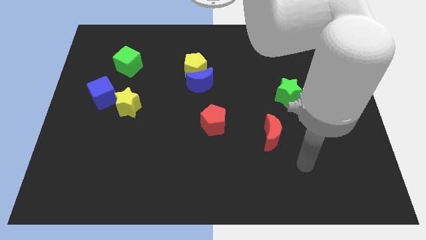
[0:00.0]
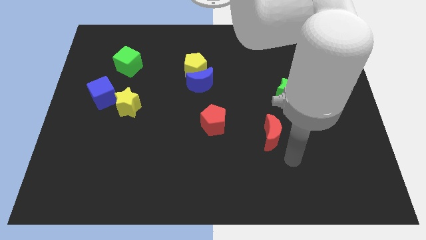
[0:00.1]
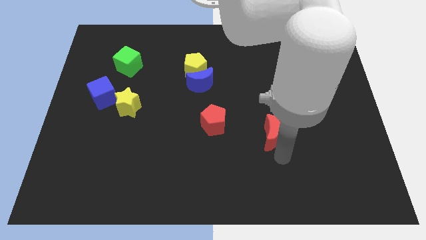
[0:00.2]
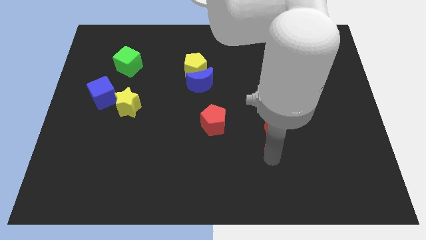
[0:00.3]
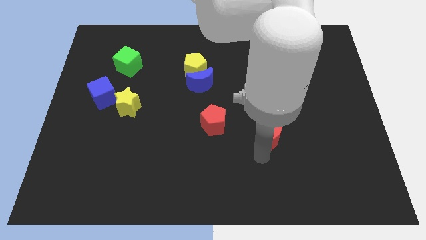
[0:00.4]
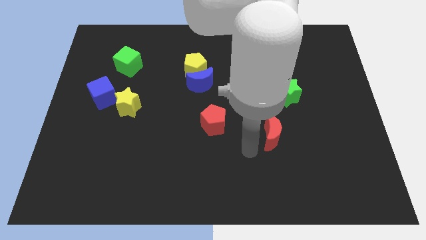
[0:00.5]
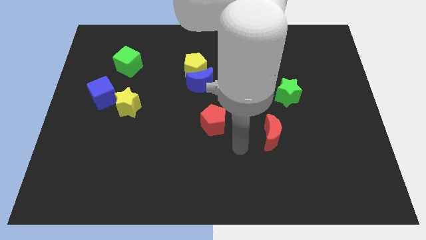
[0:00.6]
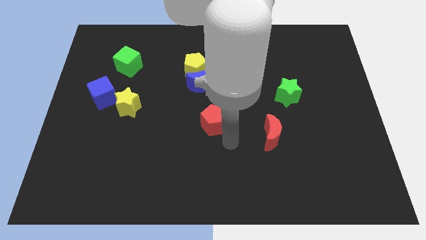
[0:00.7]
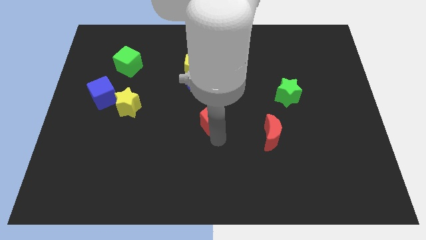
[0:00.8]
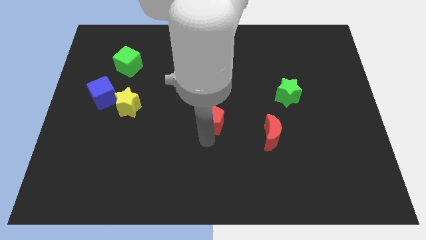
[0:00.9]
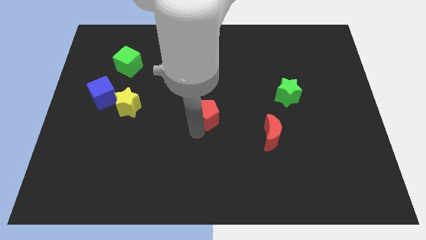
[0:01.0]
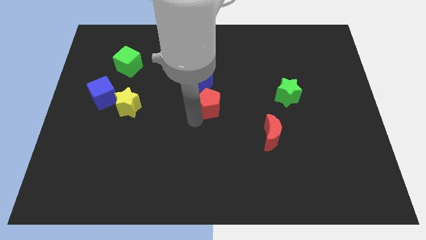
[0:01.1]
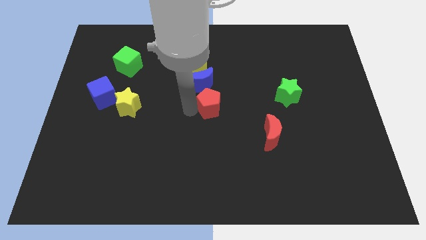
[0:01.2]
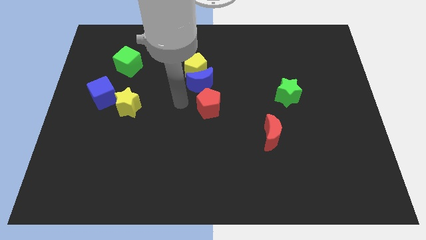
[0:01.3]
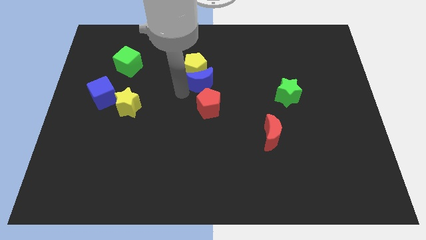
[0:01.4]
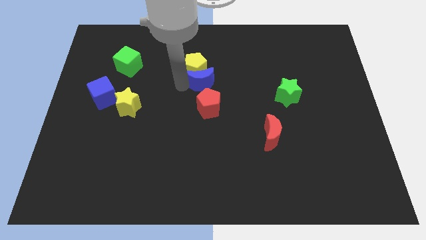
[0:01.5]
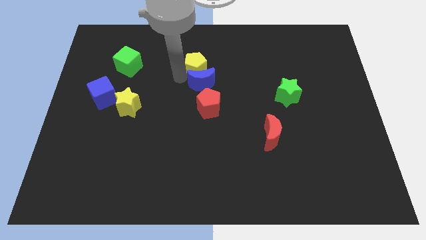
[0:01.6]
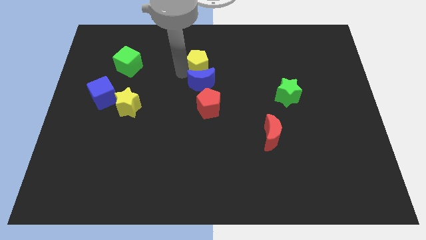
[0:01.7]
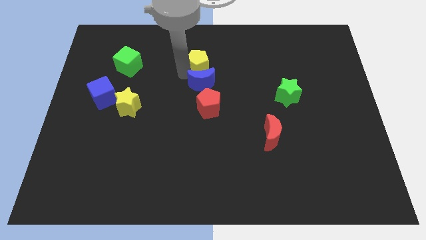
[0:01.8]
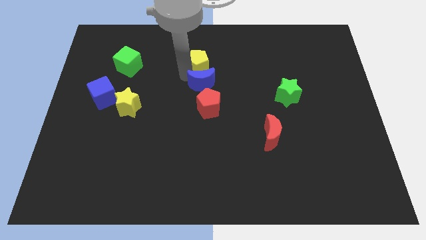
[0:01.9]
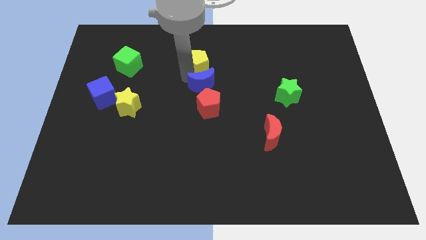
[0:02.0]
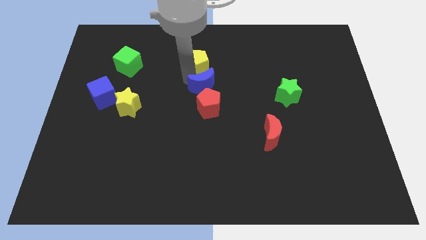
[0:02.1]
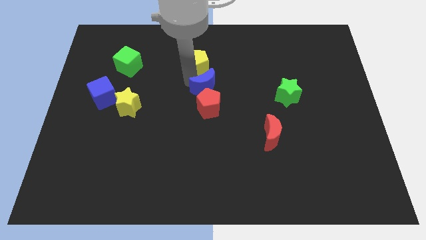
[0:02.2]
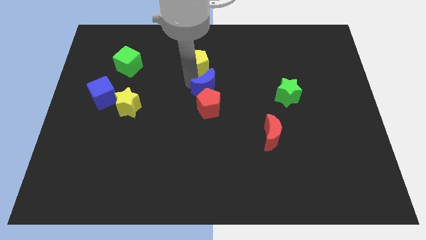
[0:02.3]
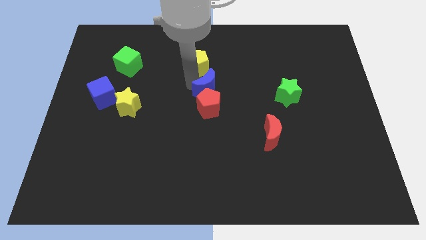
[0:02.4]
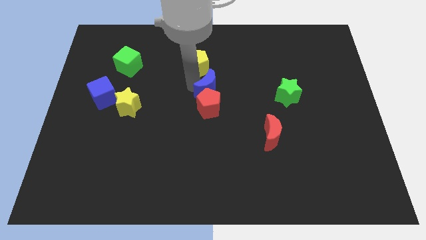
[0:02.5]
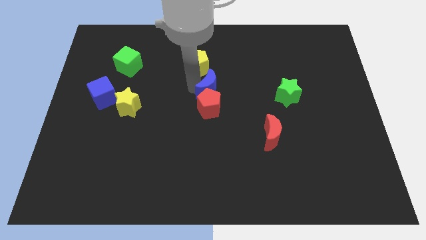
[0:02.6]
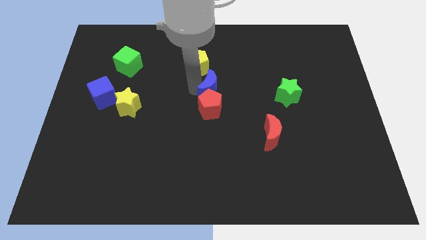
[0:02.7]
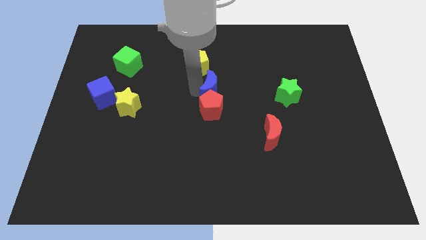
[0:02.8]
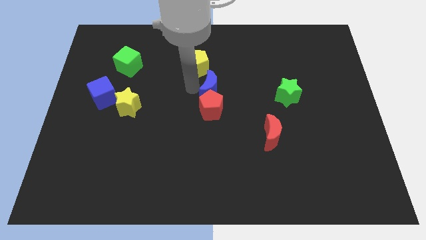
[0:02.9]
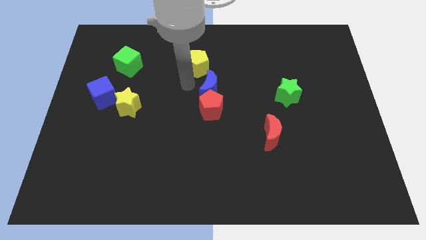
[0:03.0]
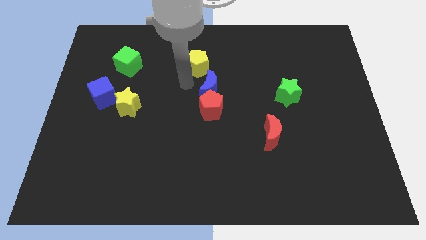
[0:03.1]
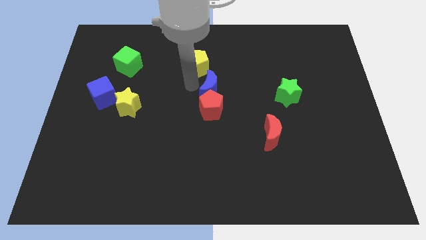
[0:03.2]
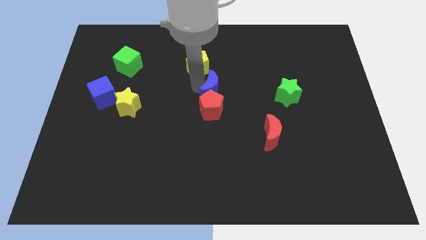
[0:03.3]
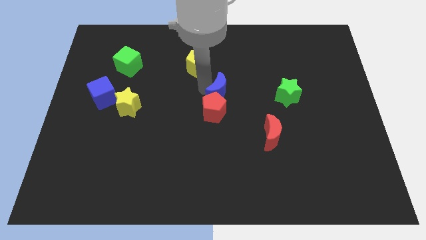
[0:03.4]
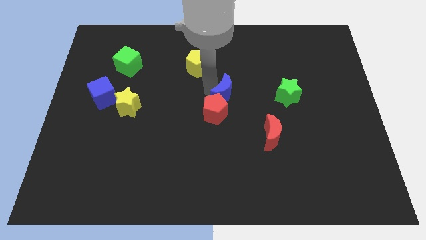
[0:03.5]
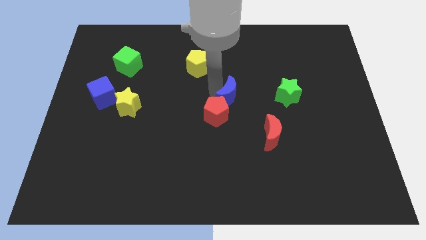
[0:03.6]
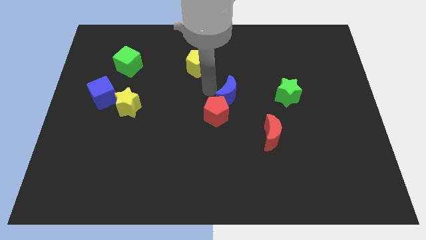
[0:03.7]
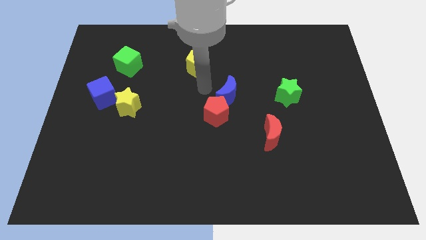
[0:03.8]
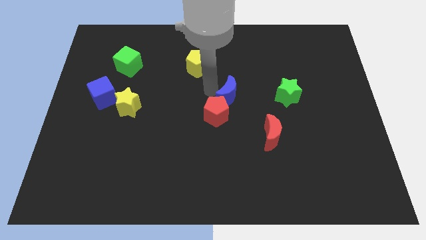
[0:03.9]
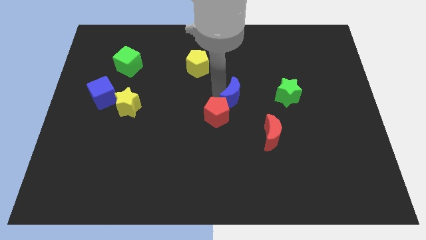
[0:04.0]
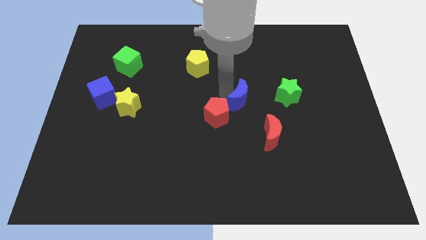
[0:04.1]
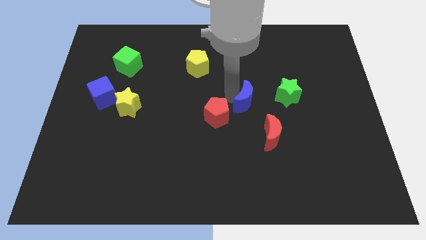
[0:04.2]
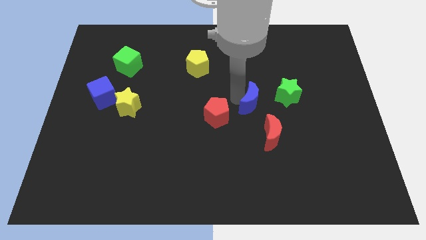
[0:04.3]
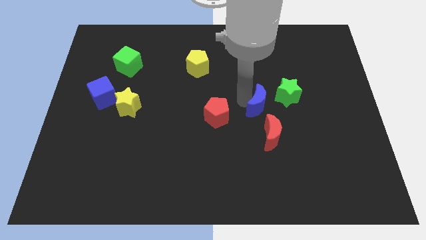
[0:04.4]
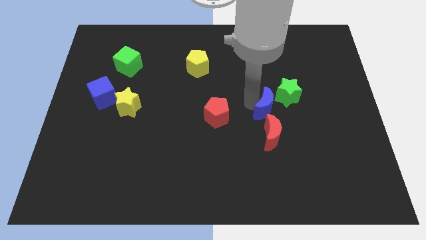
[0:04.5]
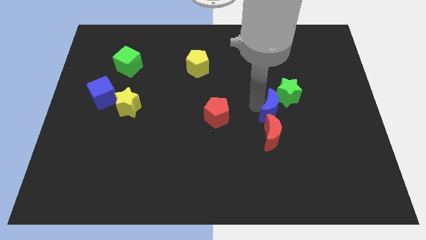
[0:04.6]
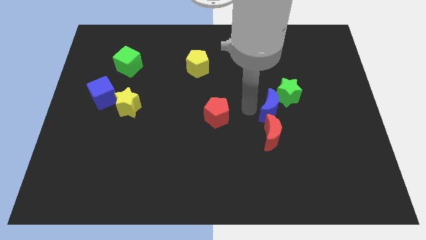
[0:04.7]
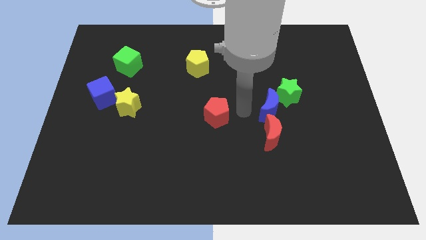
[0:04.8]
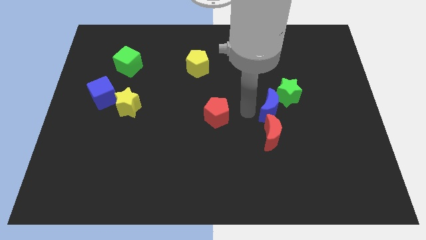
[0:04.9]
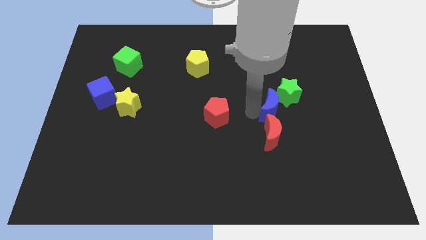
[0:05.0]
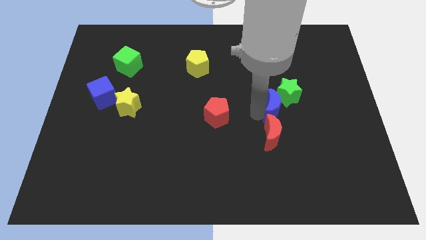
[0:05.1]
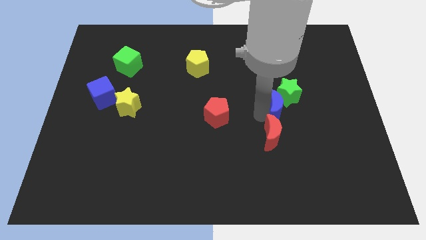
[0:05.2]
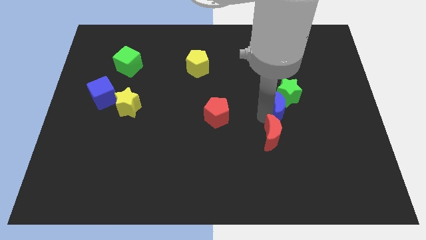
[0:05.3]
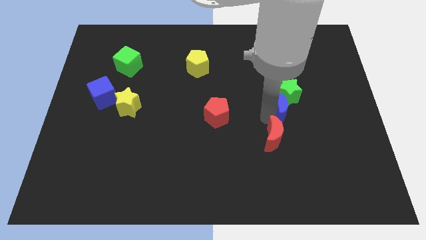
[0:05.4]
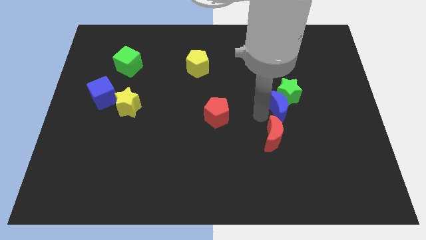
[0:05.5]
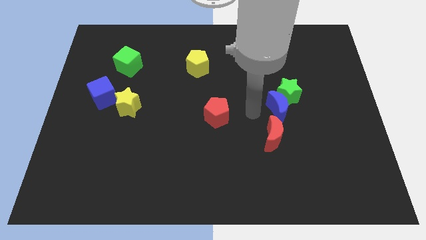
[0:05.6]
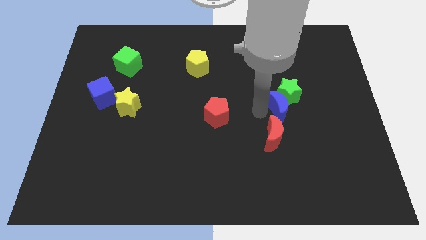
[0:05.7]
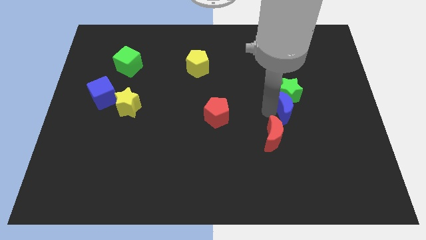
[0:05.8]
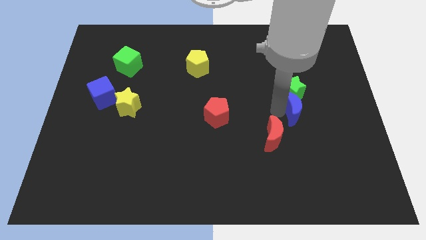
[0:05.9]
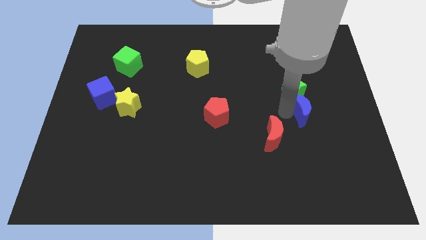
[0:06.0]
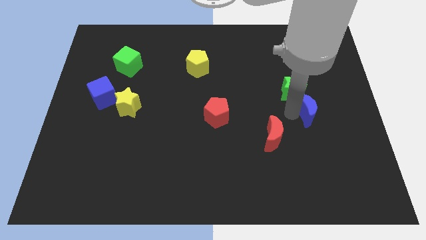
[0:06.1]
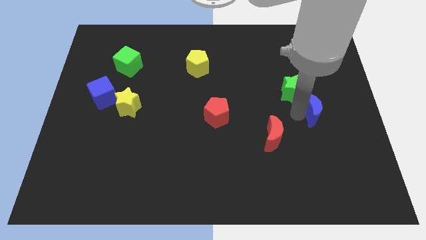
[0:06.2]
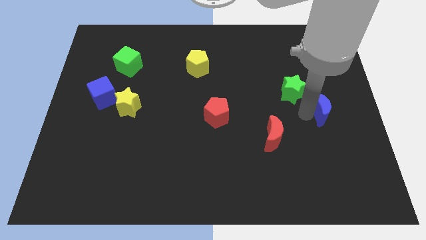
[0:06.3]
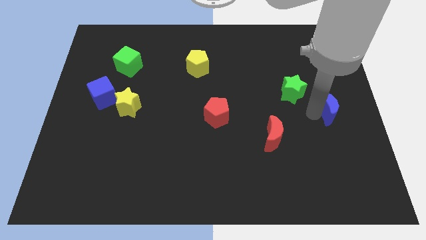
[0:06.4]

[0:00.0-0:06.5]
put the blue moon to the right side
